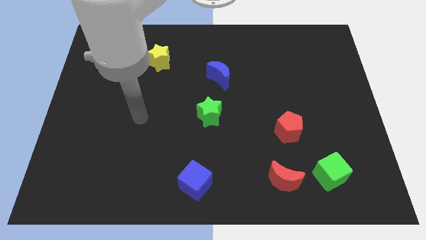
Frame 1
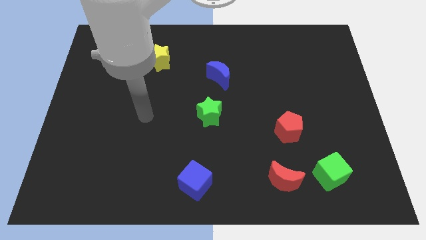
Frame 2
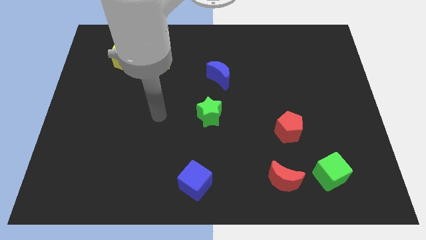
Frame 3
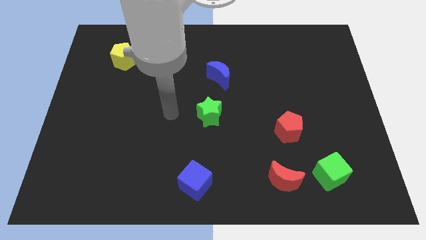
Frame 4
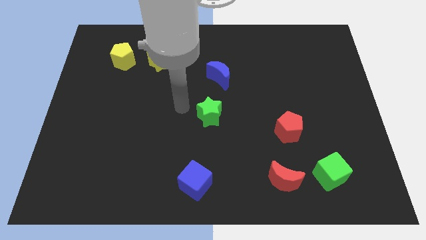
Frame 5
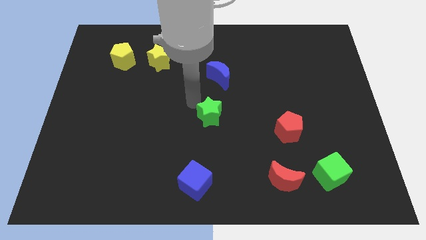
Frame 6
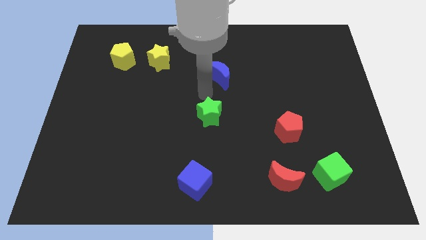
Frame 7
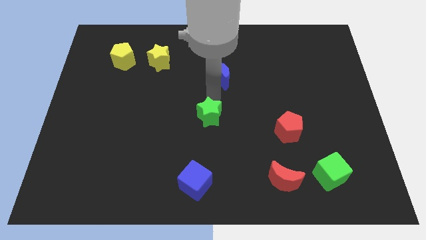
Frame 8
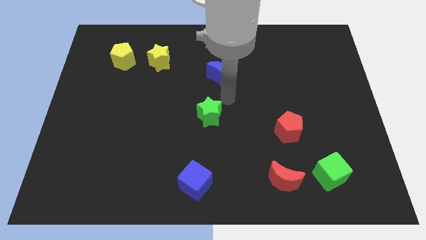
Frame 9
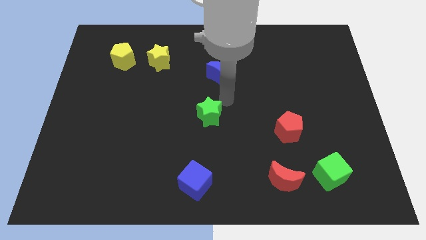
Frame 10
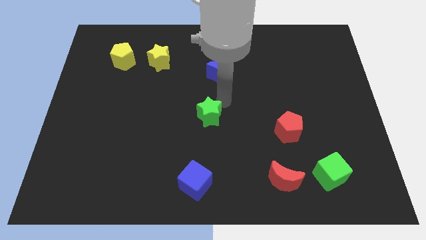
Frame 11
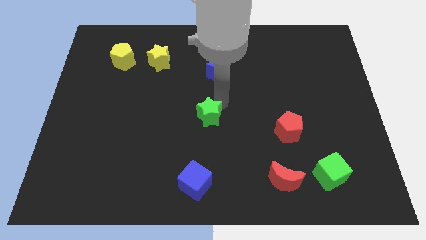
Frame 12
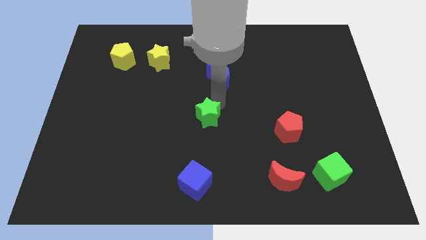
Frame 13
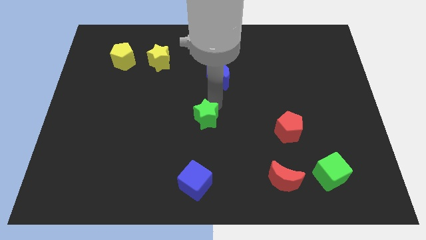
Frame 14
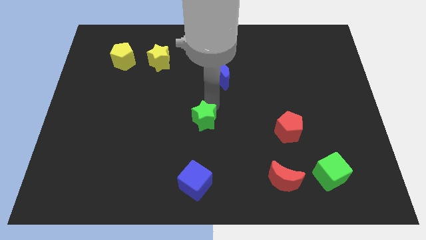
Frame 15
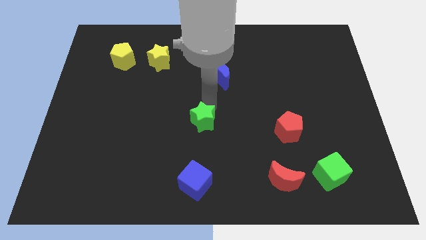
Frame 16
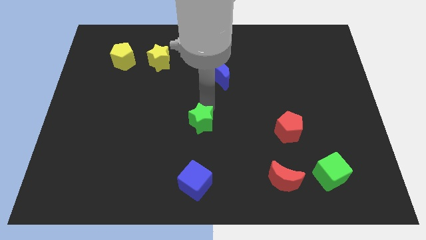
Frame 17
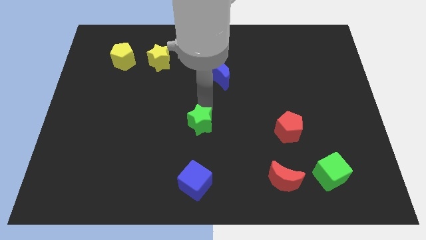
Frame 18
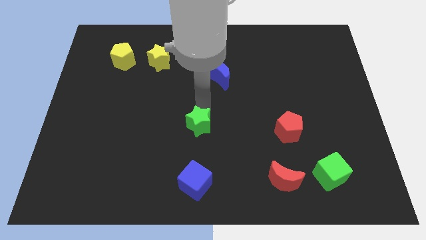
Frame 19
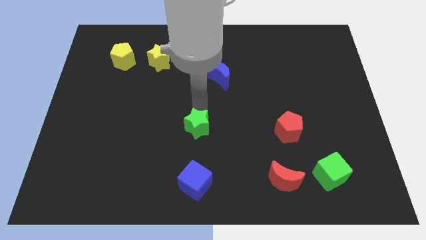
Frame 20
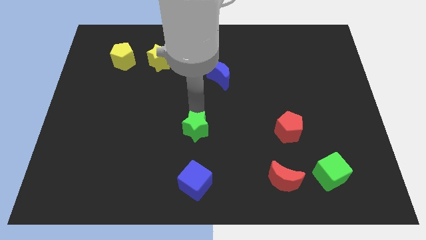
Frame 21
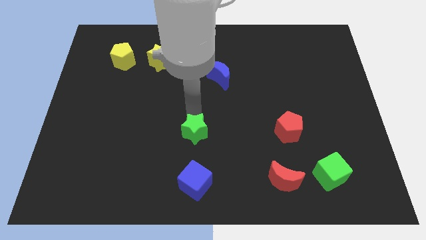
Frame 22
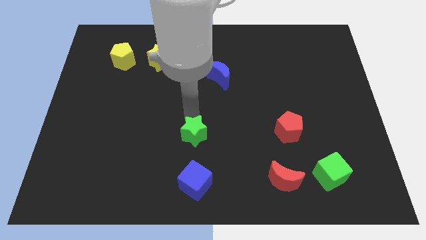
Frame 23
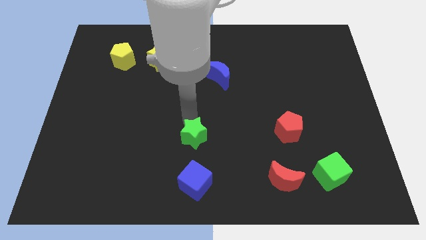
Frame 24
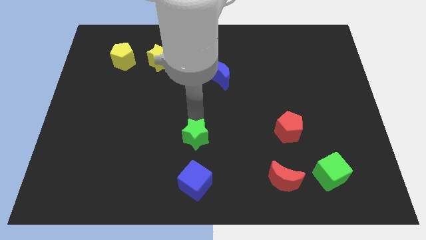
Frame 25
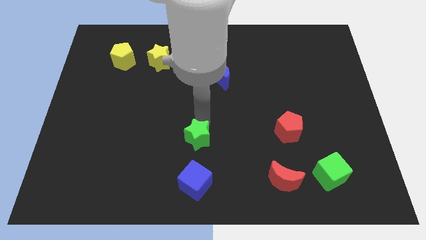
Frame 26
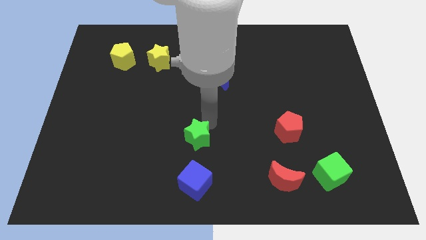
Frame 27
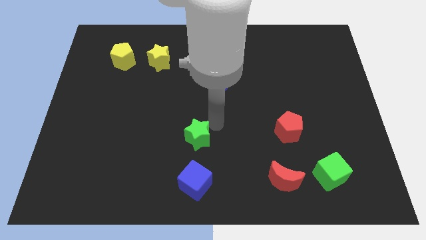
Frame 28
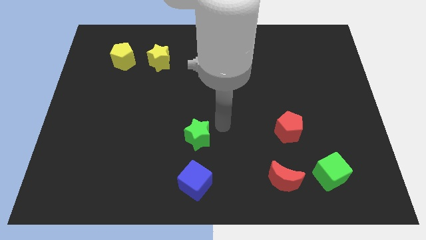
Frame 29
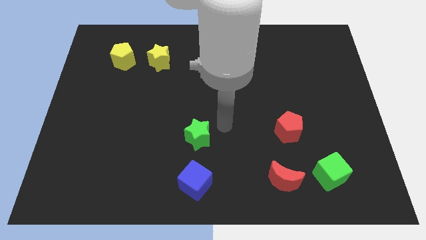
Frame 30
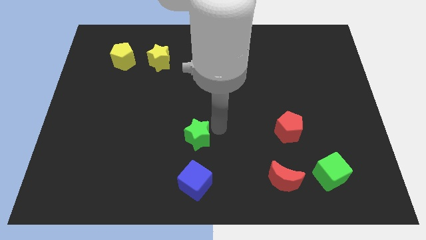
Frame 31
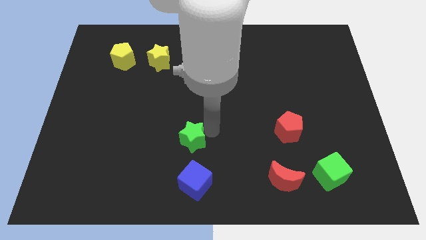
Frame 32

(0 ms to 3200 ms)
move the green star a little down and then to the left

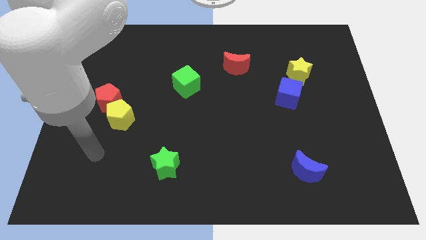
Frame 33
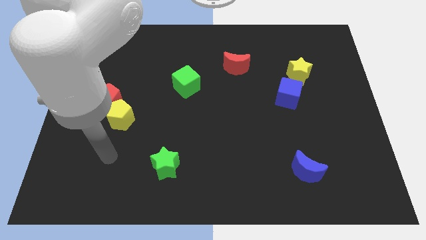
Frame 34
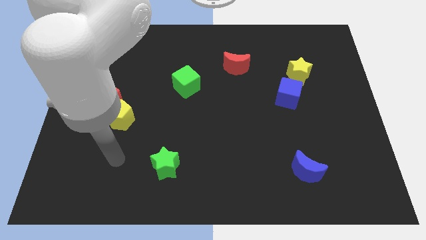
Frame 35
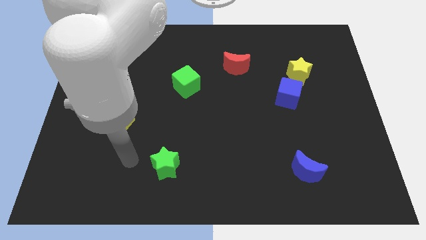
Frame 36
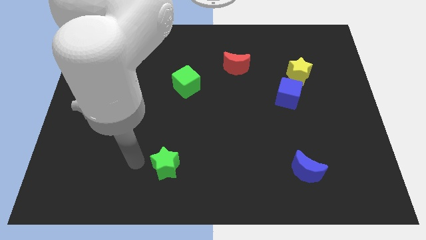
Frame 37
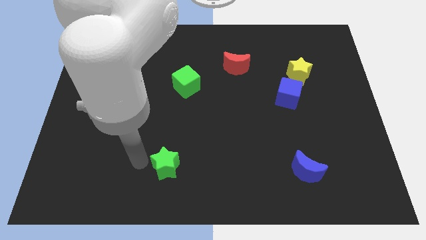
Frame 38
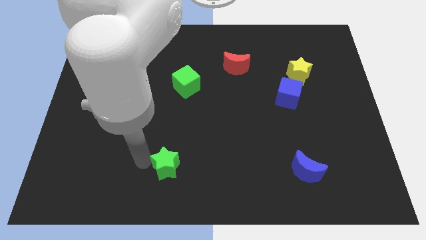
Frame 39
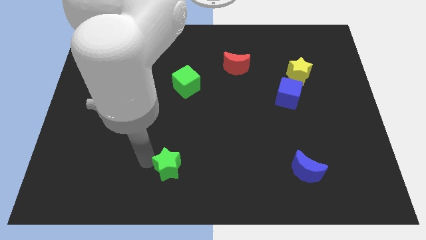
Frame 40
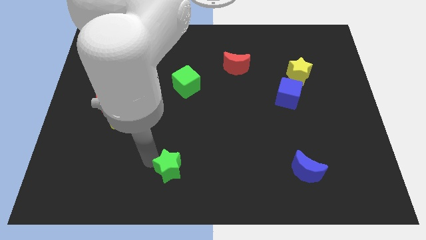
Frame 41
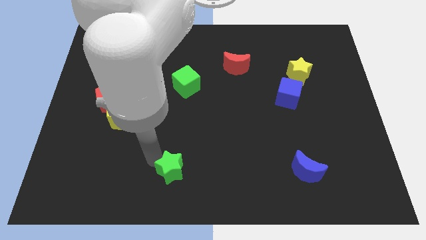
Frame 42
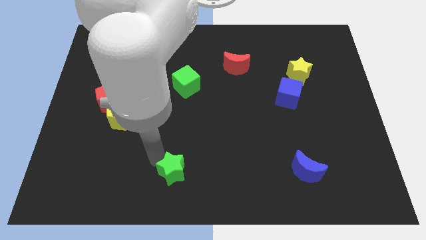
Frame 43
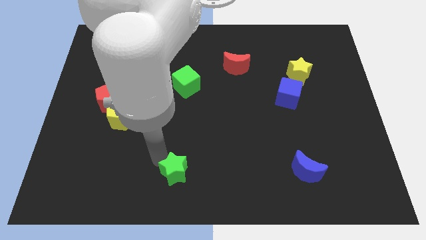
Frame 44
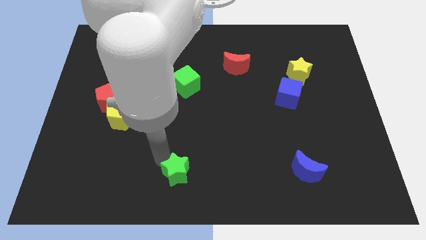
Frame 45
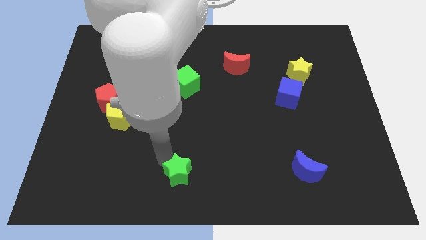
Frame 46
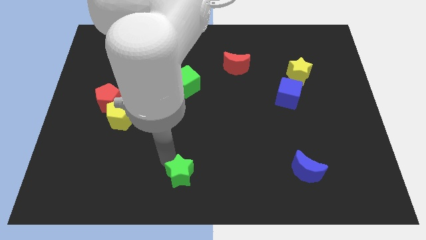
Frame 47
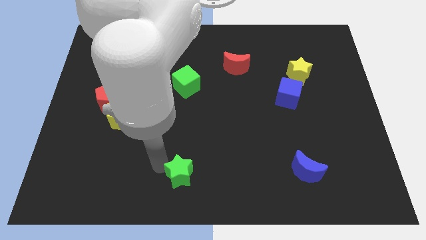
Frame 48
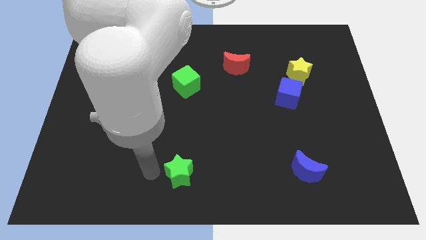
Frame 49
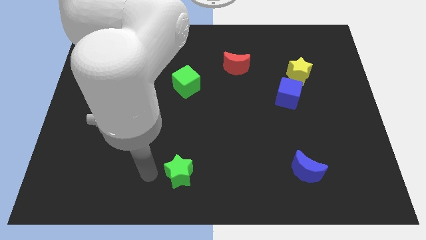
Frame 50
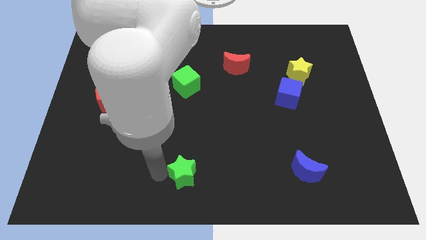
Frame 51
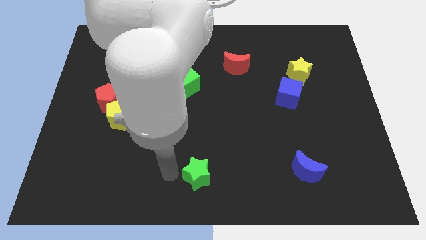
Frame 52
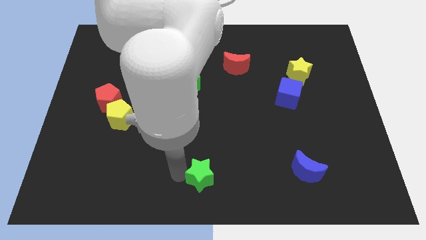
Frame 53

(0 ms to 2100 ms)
move the green star a little bit right

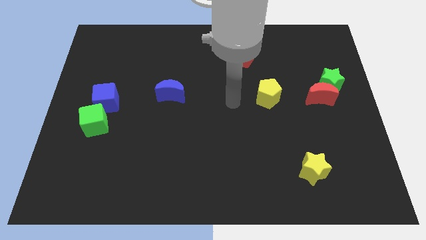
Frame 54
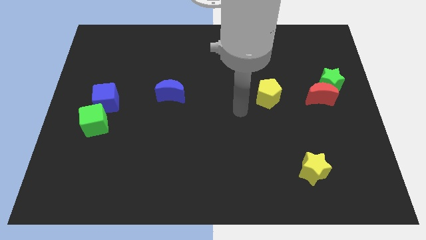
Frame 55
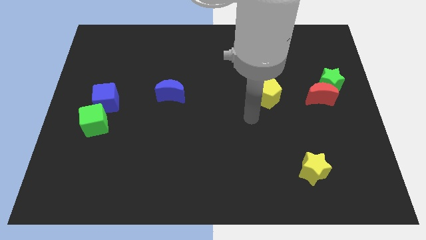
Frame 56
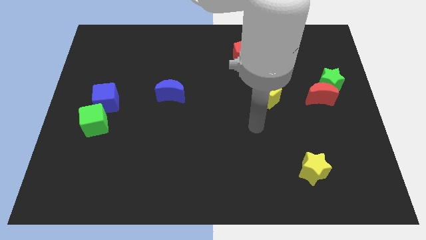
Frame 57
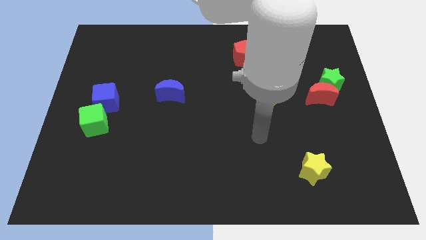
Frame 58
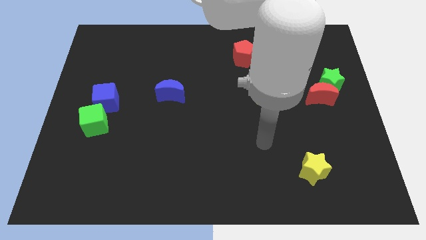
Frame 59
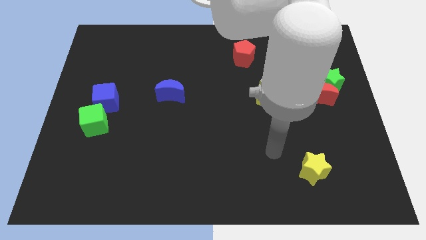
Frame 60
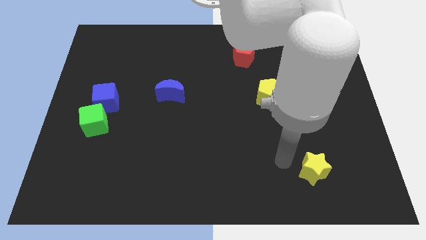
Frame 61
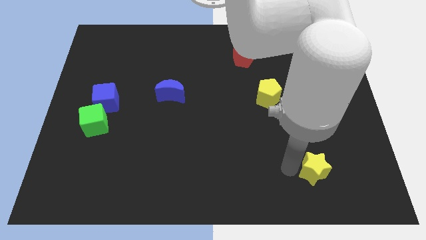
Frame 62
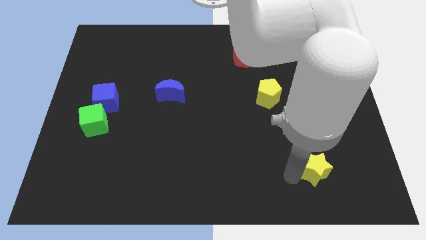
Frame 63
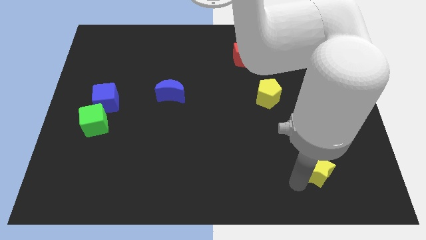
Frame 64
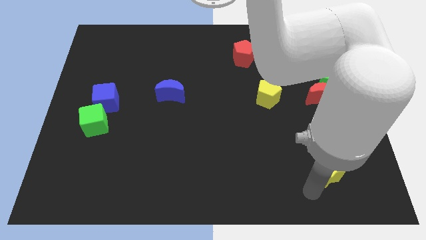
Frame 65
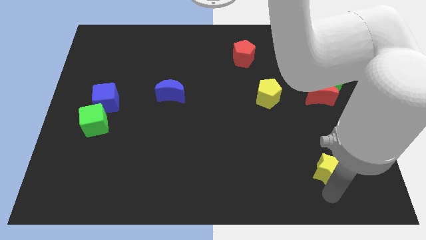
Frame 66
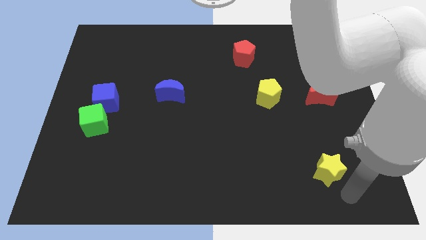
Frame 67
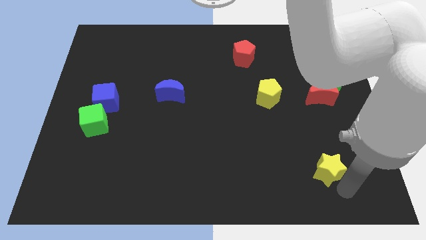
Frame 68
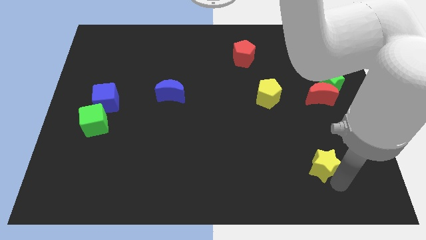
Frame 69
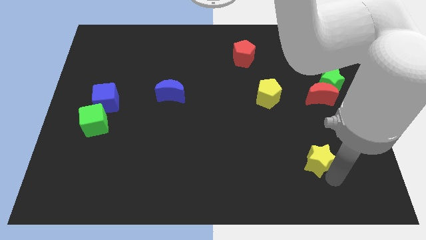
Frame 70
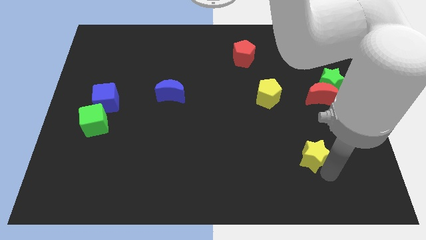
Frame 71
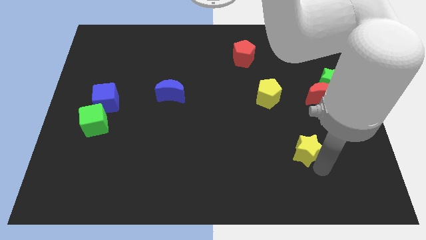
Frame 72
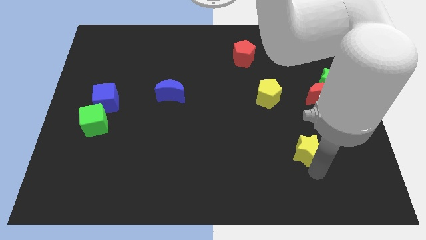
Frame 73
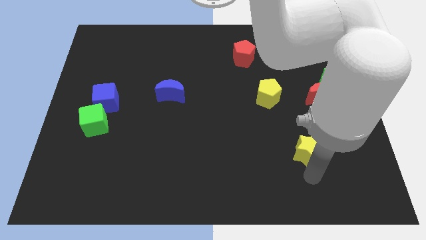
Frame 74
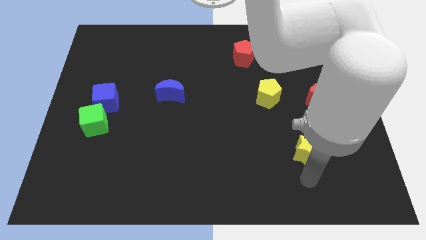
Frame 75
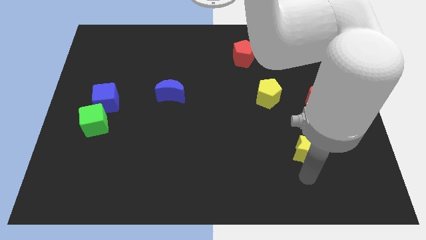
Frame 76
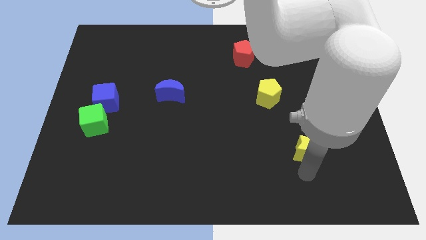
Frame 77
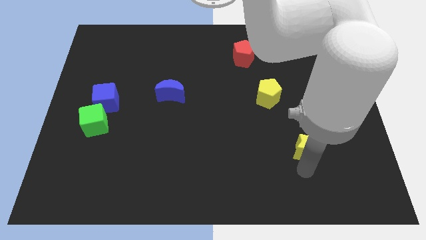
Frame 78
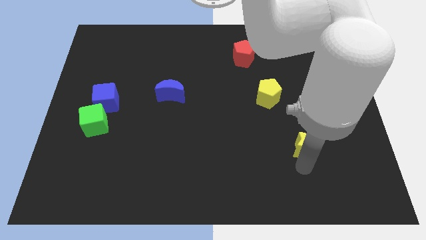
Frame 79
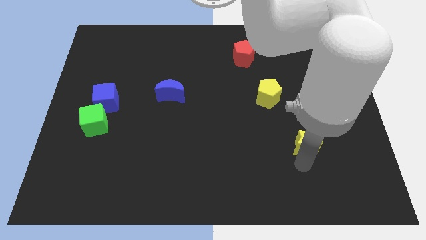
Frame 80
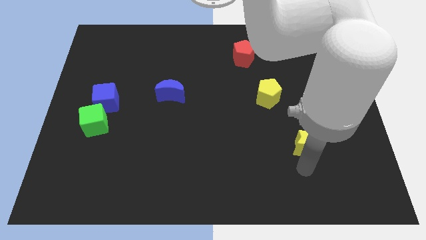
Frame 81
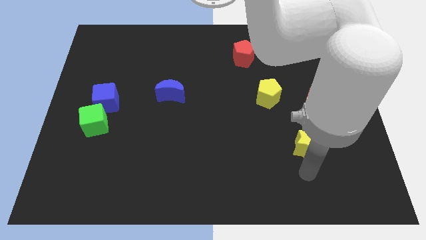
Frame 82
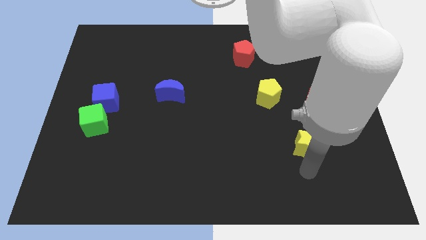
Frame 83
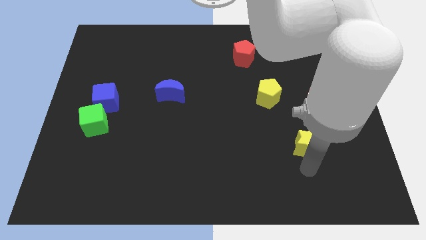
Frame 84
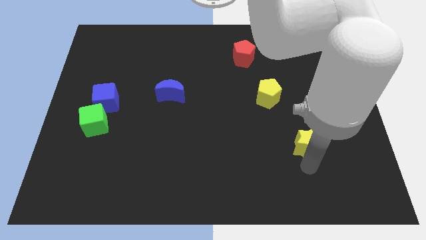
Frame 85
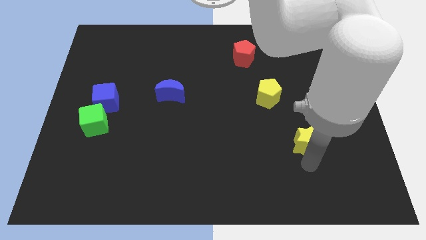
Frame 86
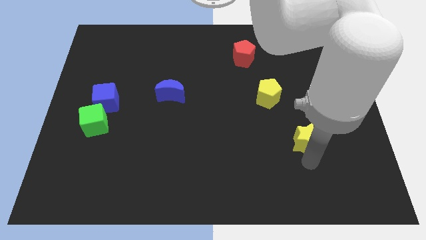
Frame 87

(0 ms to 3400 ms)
slide the yellow star up a bit
